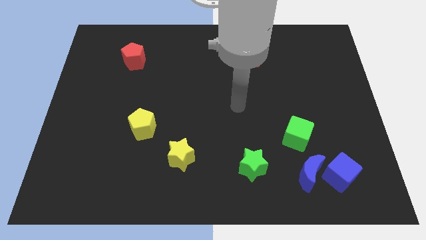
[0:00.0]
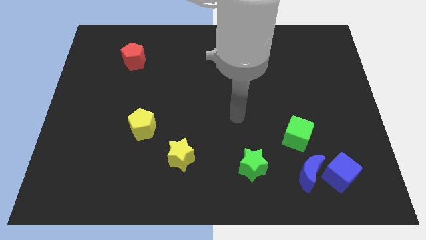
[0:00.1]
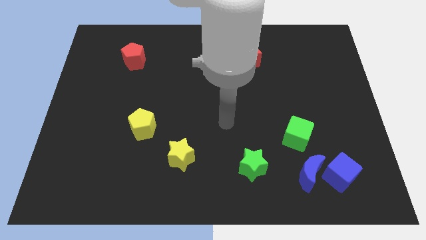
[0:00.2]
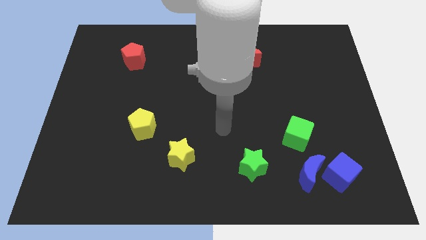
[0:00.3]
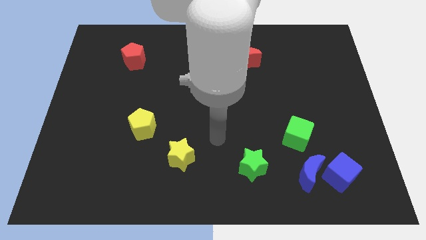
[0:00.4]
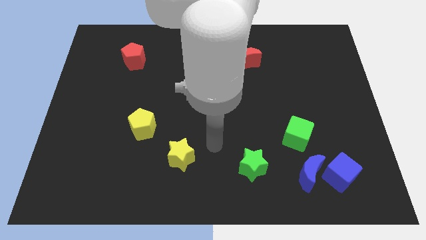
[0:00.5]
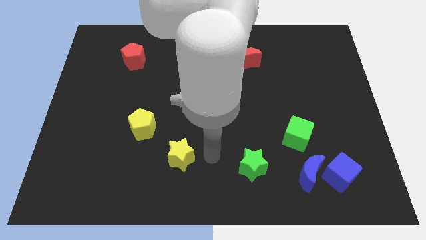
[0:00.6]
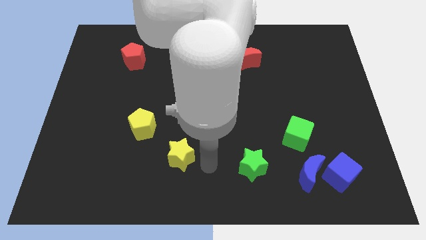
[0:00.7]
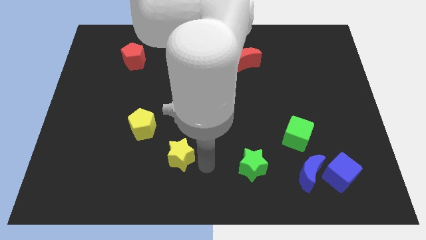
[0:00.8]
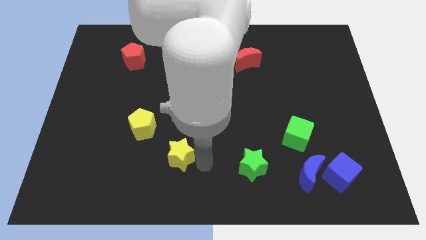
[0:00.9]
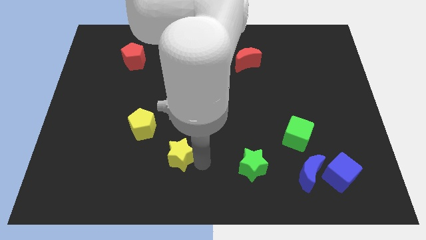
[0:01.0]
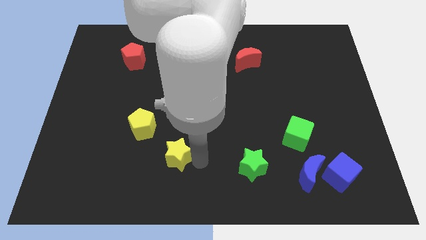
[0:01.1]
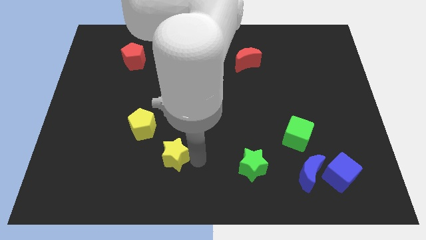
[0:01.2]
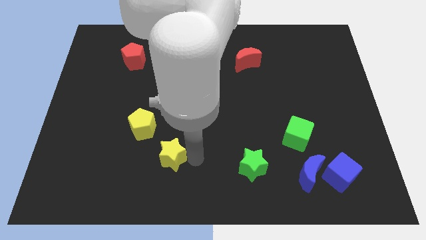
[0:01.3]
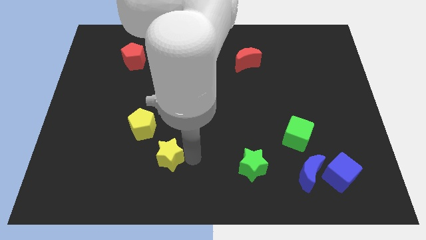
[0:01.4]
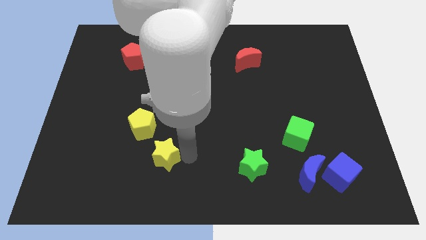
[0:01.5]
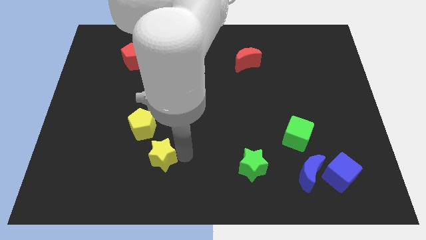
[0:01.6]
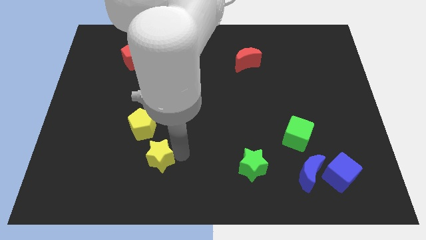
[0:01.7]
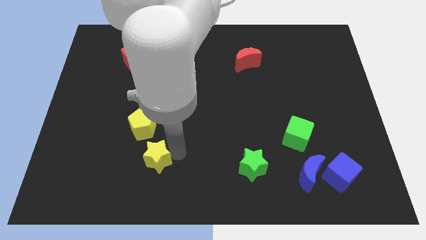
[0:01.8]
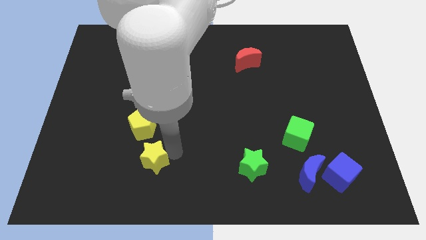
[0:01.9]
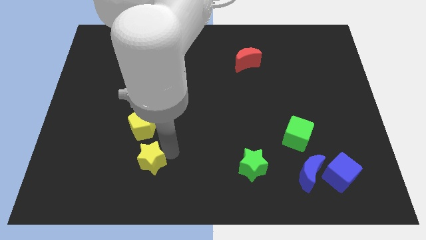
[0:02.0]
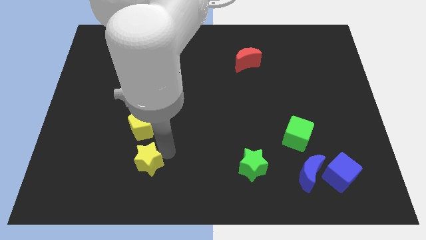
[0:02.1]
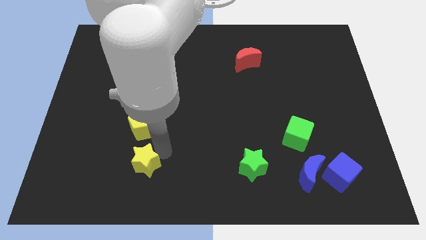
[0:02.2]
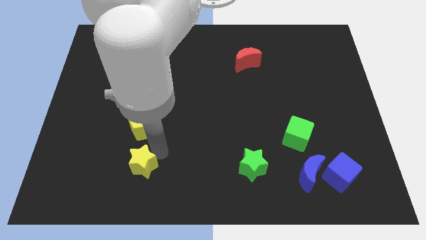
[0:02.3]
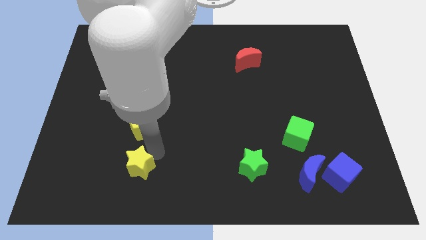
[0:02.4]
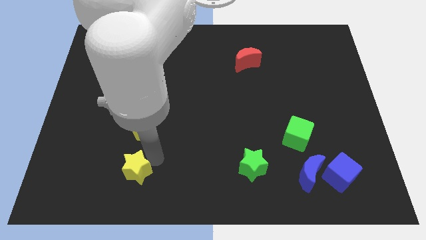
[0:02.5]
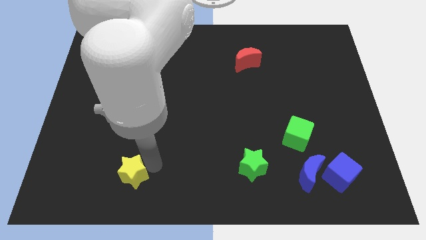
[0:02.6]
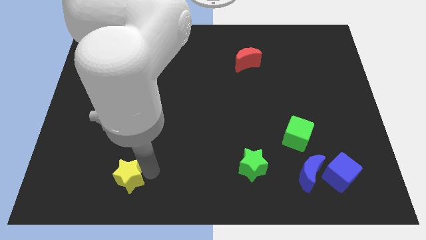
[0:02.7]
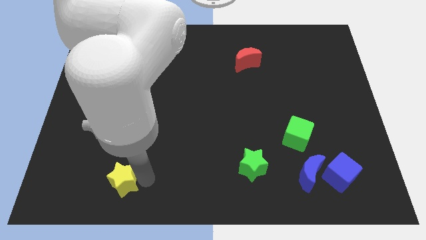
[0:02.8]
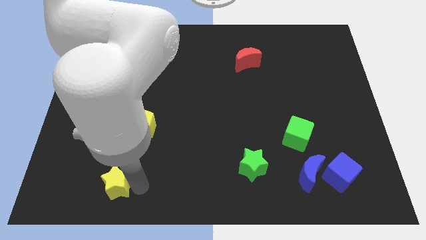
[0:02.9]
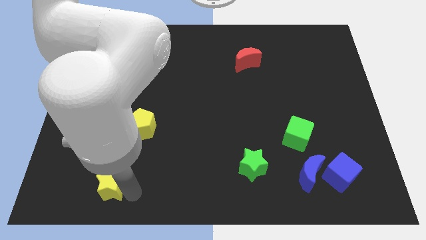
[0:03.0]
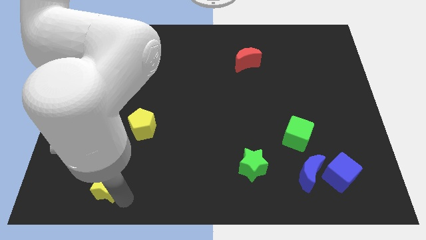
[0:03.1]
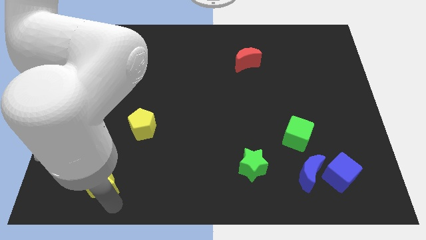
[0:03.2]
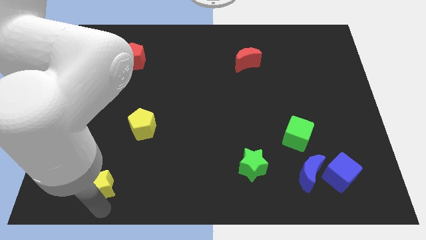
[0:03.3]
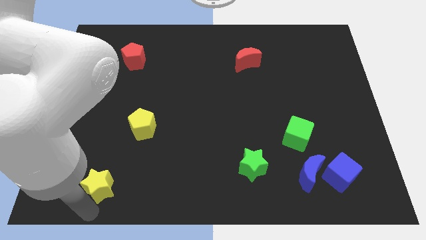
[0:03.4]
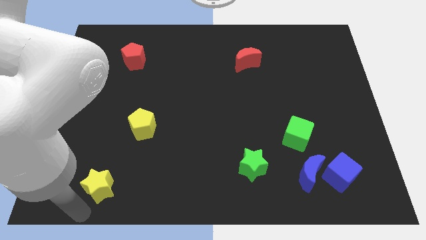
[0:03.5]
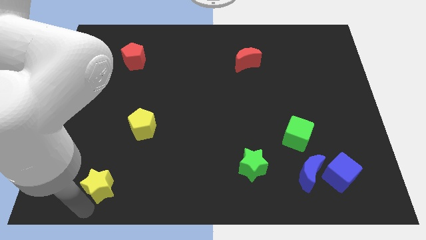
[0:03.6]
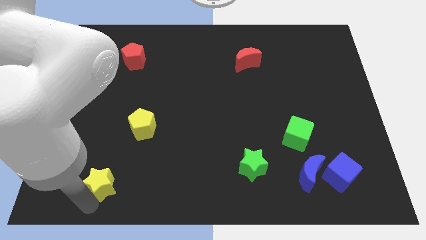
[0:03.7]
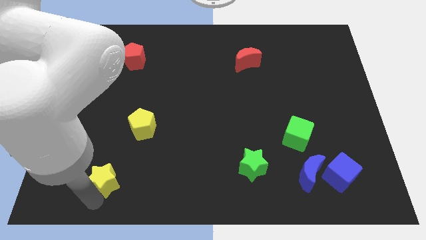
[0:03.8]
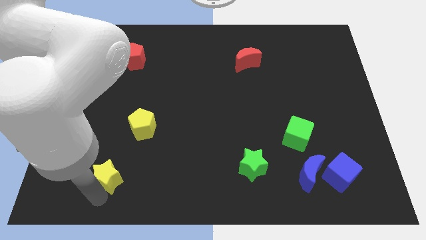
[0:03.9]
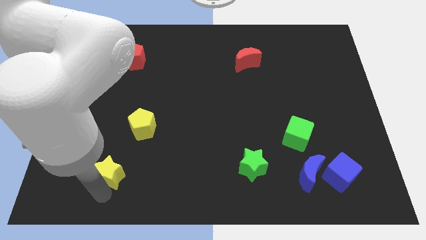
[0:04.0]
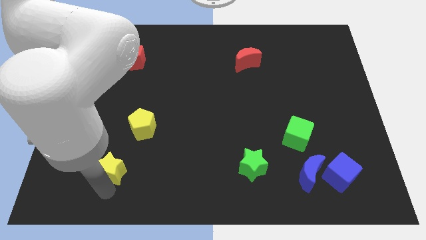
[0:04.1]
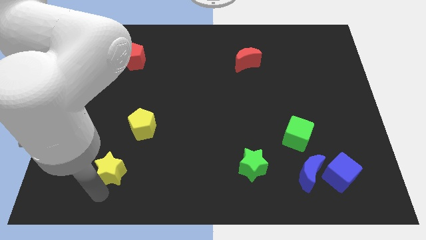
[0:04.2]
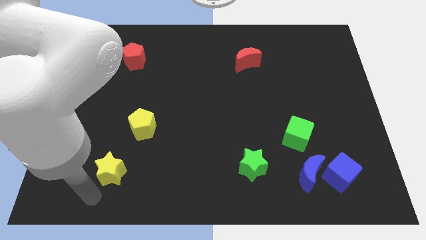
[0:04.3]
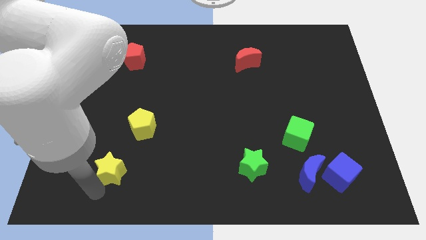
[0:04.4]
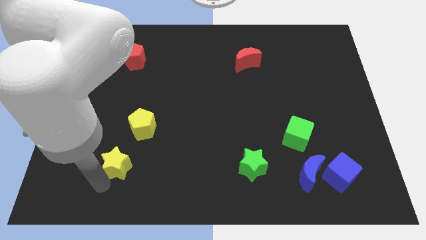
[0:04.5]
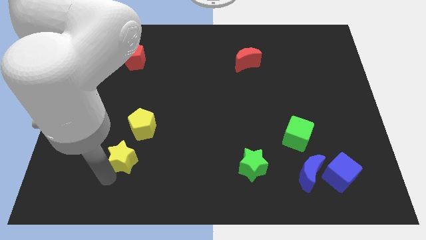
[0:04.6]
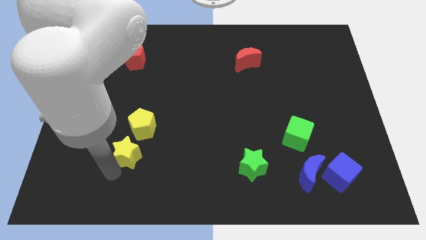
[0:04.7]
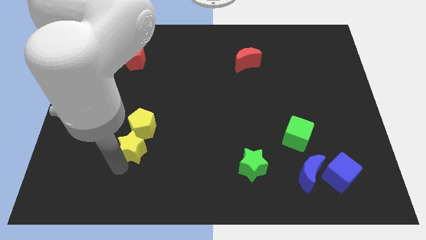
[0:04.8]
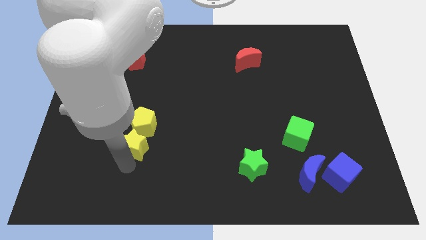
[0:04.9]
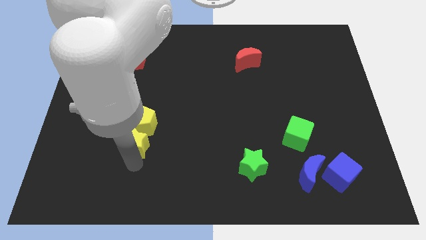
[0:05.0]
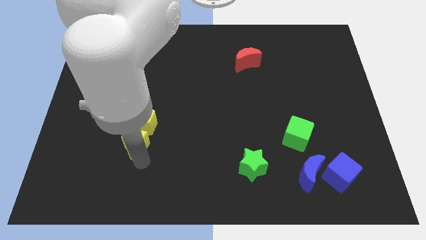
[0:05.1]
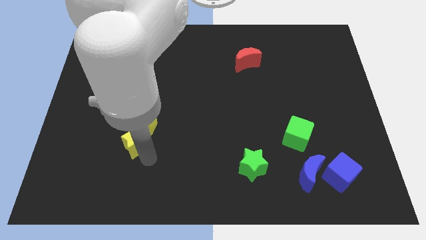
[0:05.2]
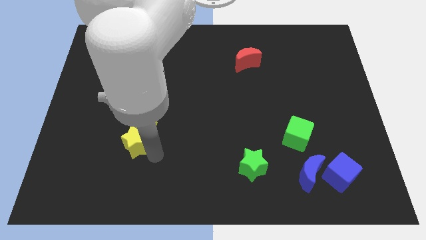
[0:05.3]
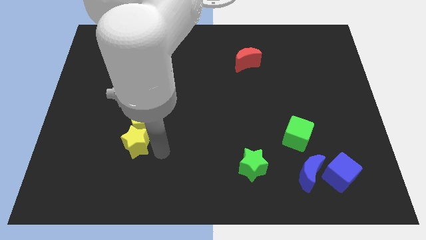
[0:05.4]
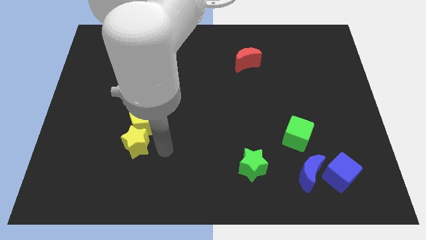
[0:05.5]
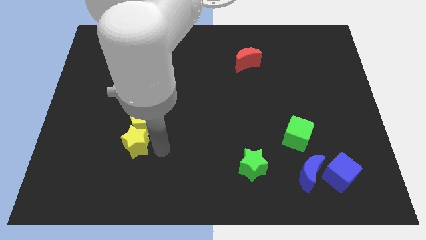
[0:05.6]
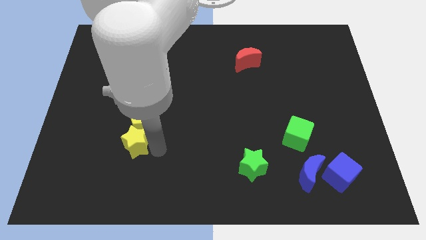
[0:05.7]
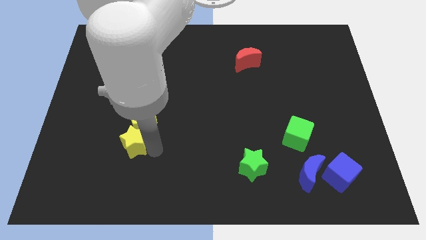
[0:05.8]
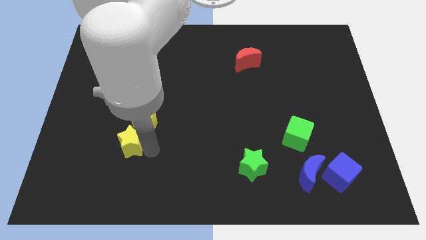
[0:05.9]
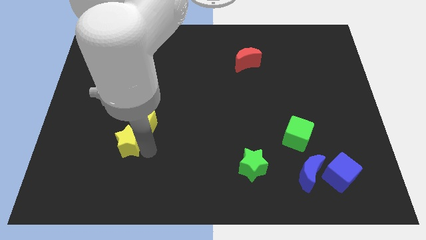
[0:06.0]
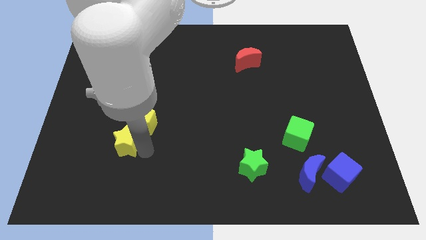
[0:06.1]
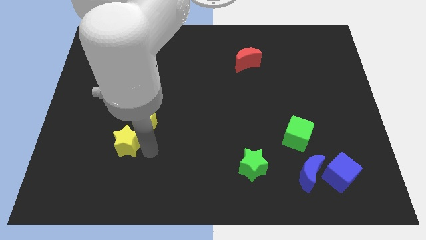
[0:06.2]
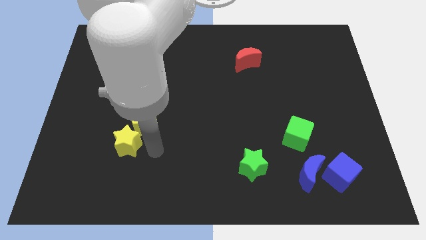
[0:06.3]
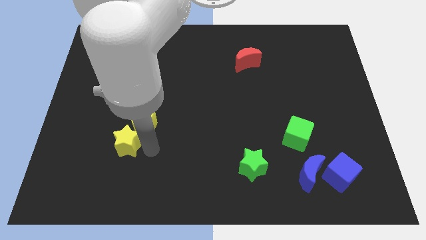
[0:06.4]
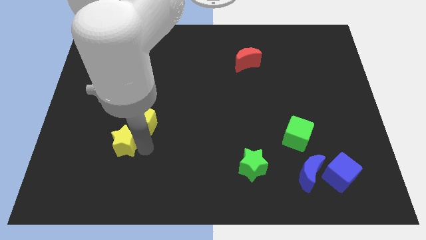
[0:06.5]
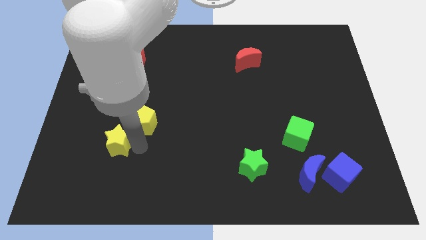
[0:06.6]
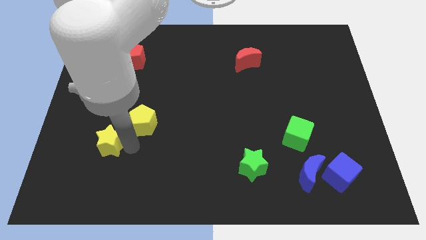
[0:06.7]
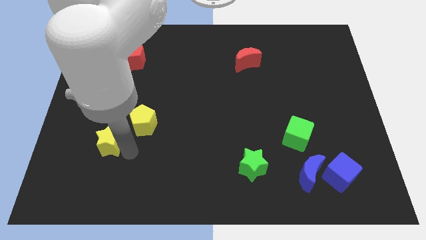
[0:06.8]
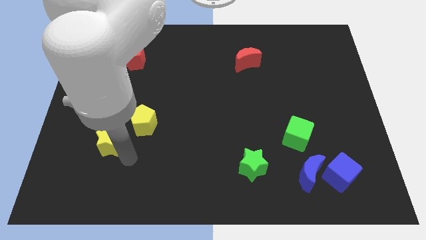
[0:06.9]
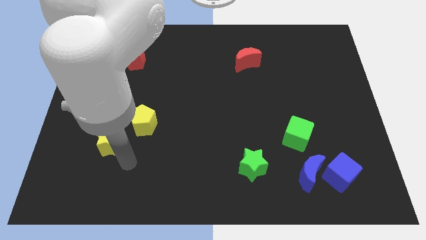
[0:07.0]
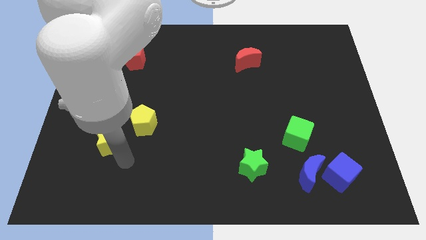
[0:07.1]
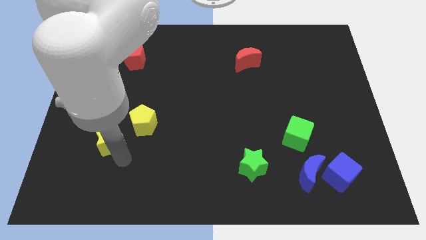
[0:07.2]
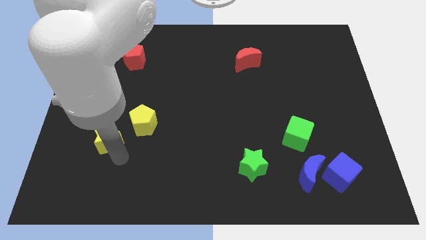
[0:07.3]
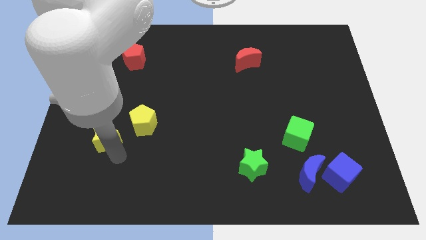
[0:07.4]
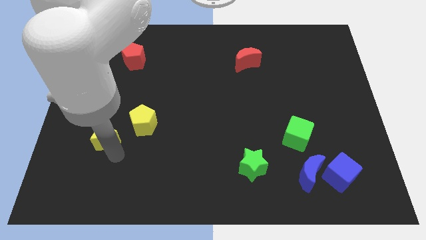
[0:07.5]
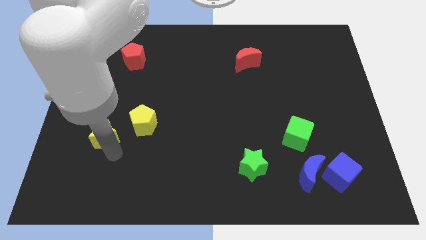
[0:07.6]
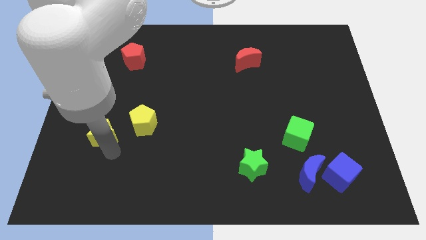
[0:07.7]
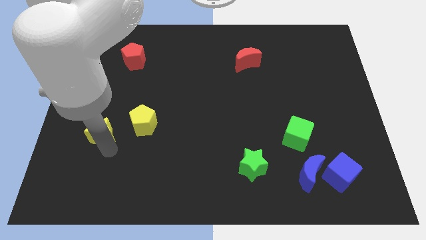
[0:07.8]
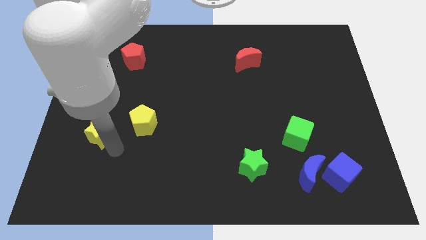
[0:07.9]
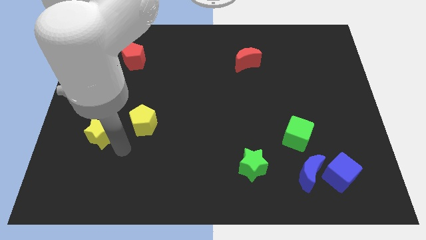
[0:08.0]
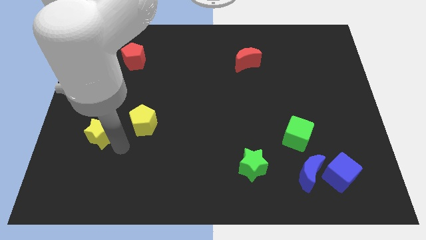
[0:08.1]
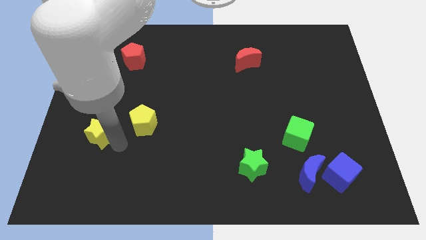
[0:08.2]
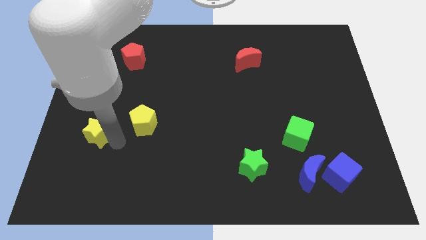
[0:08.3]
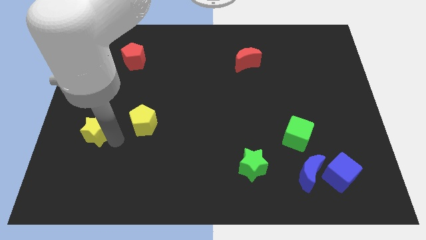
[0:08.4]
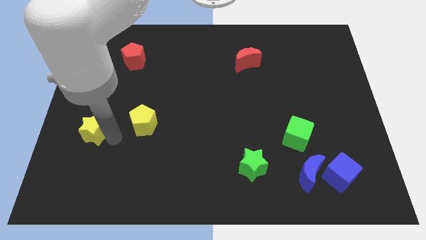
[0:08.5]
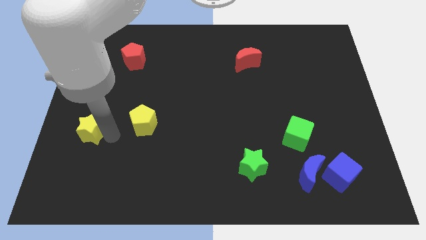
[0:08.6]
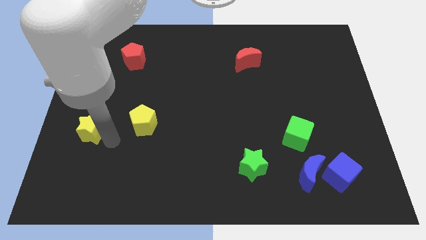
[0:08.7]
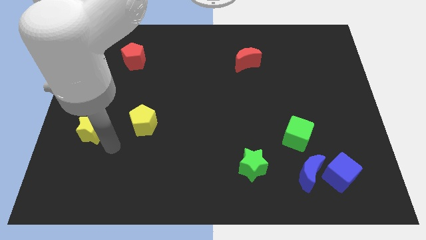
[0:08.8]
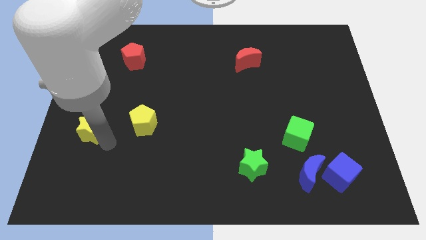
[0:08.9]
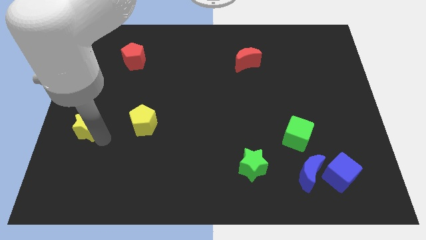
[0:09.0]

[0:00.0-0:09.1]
put the yellow star to the left side
